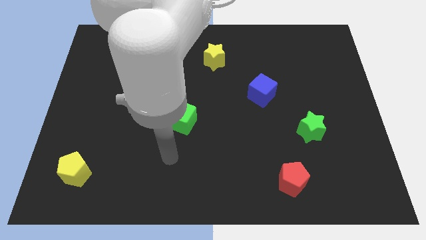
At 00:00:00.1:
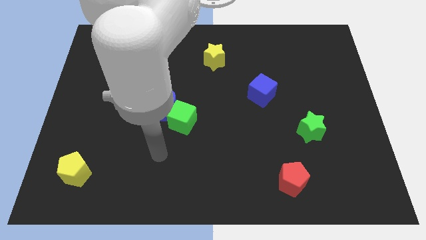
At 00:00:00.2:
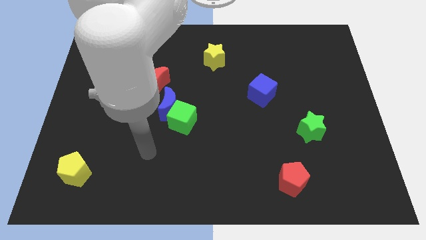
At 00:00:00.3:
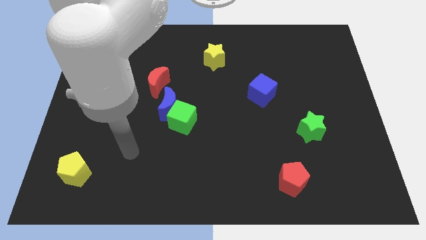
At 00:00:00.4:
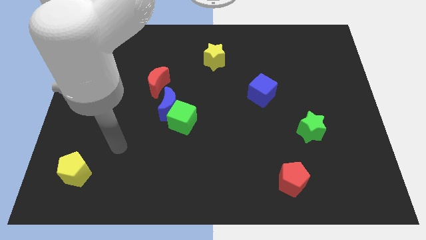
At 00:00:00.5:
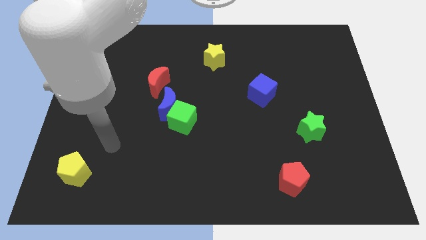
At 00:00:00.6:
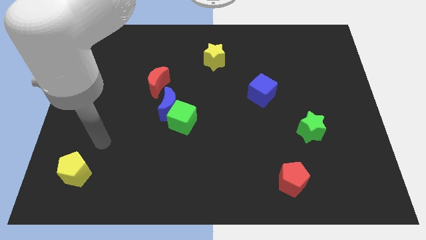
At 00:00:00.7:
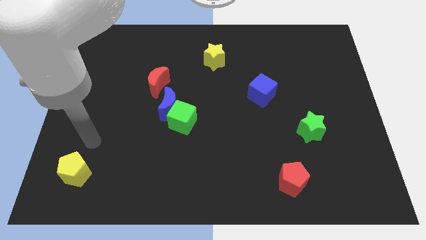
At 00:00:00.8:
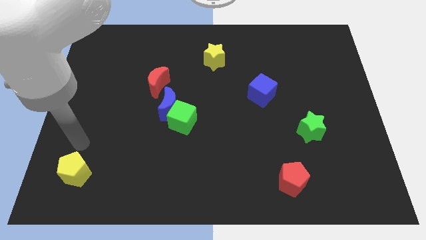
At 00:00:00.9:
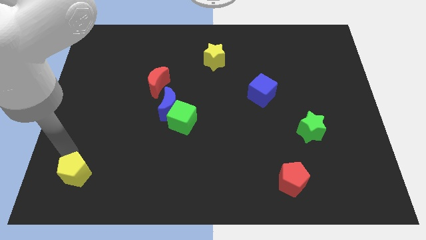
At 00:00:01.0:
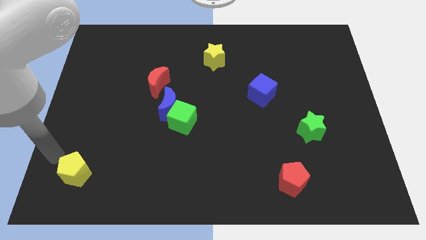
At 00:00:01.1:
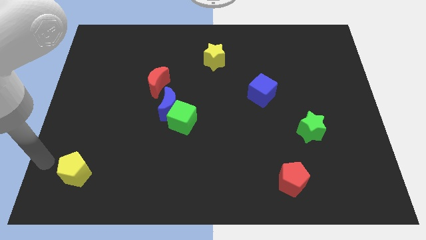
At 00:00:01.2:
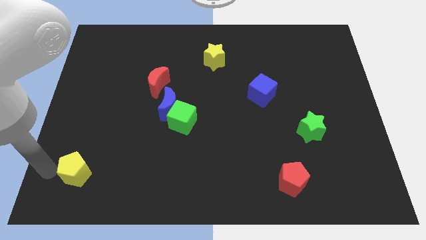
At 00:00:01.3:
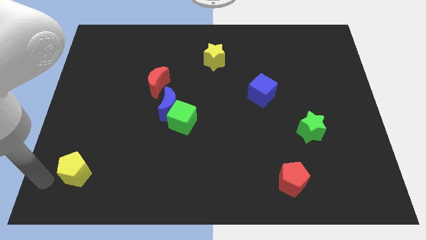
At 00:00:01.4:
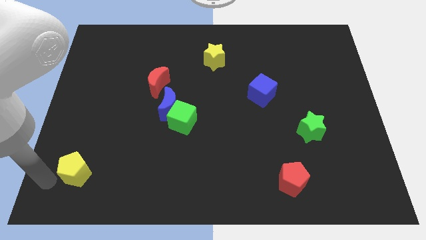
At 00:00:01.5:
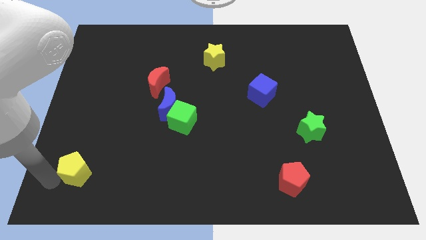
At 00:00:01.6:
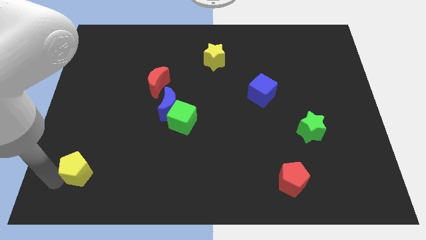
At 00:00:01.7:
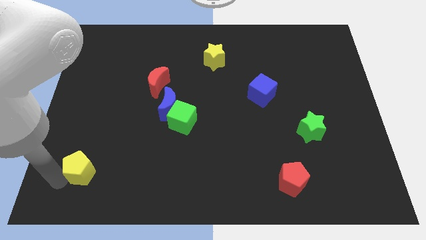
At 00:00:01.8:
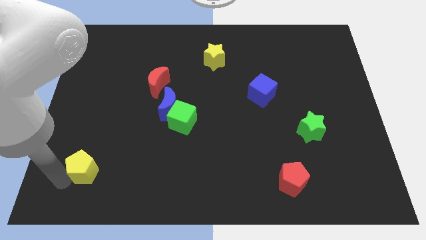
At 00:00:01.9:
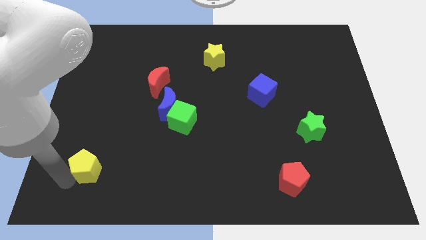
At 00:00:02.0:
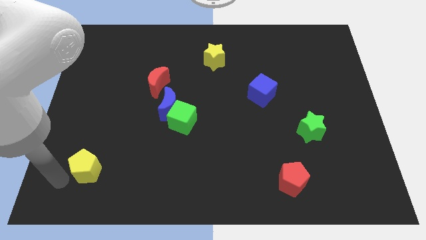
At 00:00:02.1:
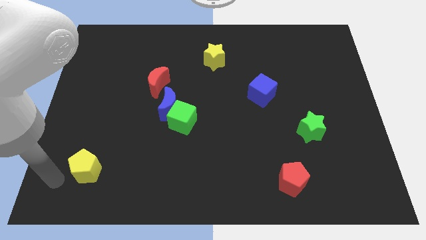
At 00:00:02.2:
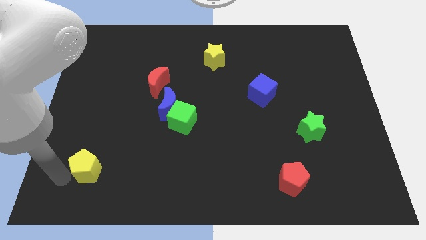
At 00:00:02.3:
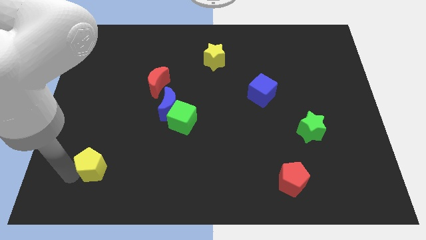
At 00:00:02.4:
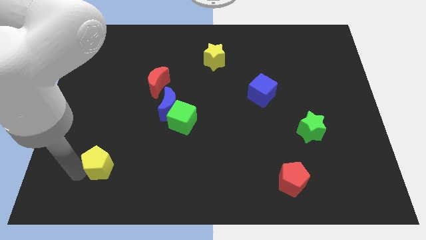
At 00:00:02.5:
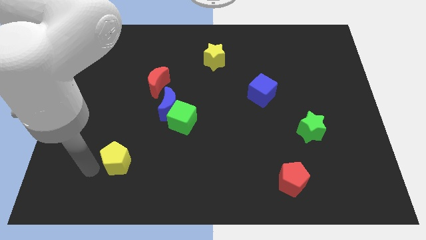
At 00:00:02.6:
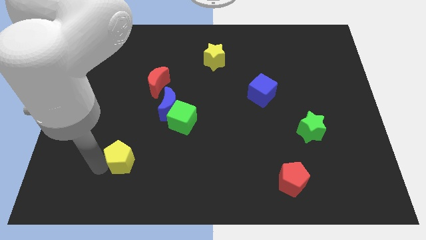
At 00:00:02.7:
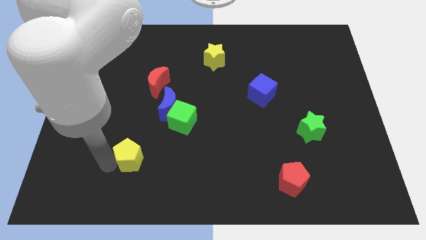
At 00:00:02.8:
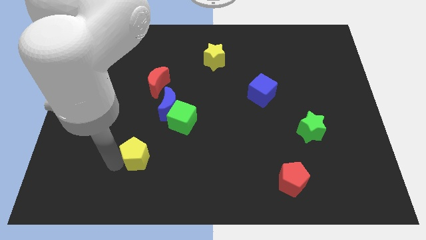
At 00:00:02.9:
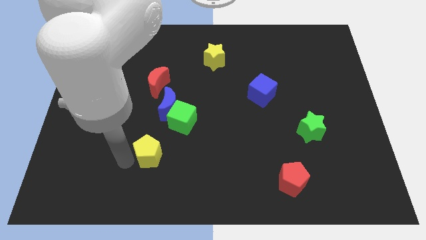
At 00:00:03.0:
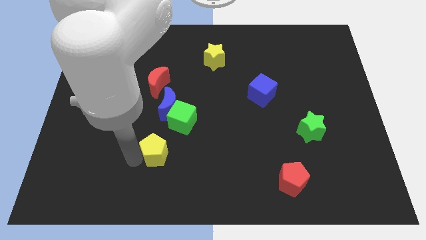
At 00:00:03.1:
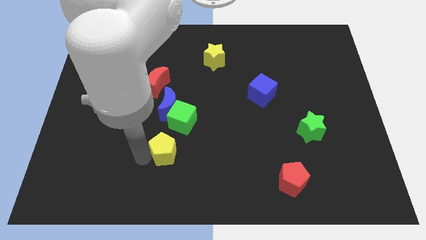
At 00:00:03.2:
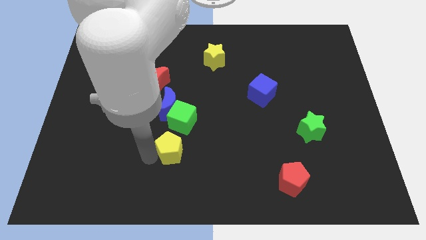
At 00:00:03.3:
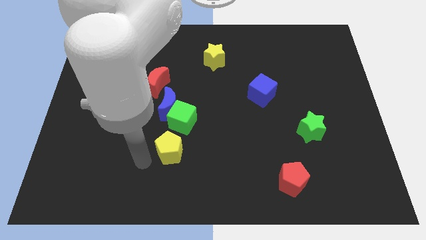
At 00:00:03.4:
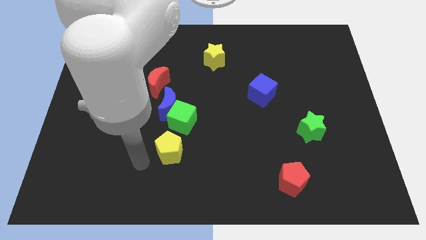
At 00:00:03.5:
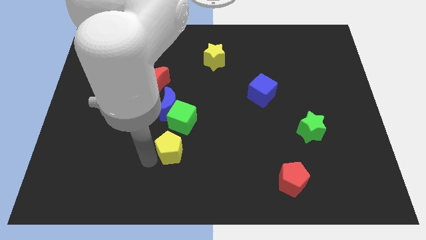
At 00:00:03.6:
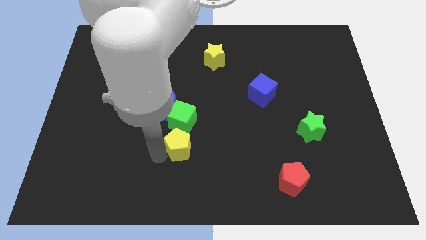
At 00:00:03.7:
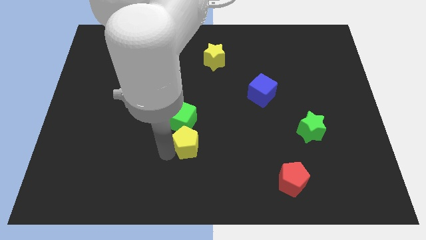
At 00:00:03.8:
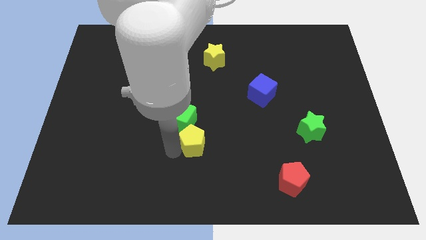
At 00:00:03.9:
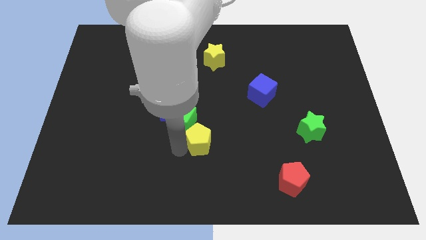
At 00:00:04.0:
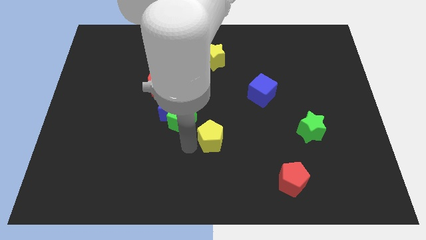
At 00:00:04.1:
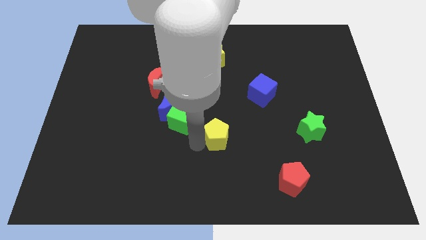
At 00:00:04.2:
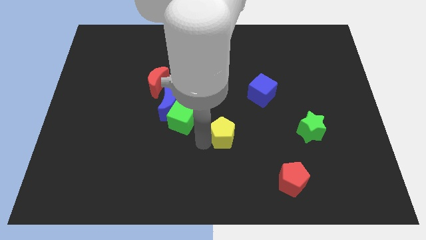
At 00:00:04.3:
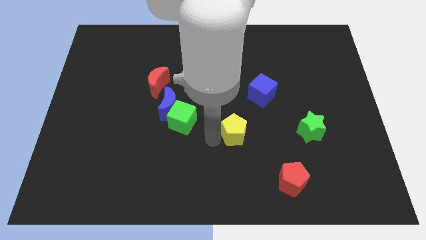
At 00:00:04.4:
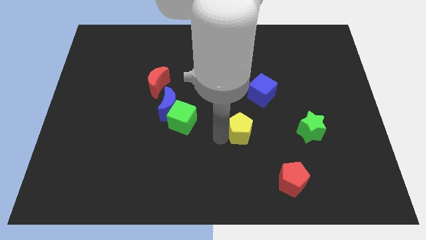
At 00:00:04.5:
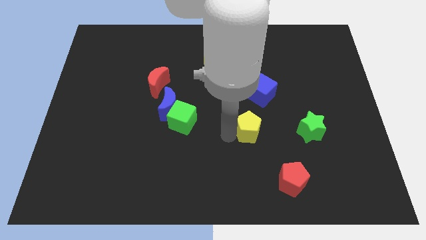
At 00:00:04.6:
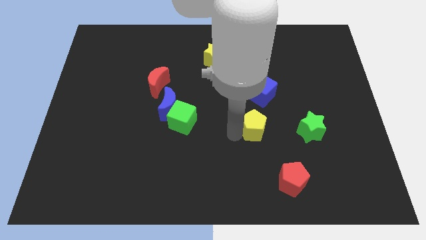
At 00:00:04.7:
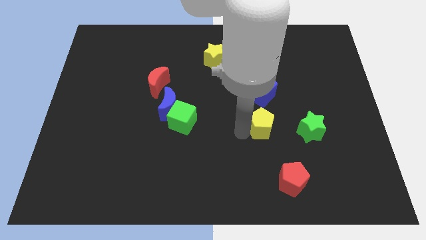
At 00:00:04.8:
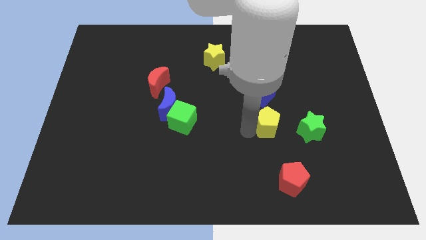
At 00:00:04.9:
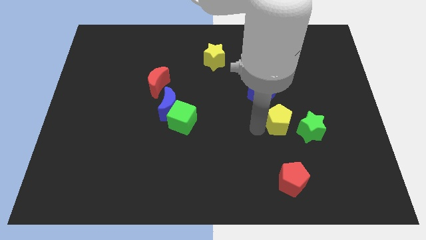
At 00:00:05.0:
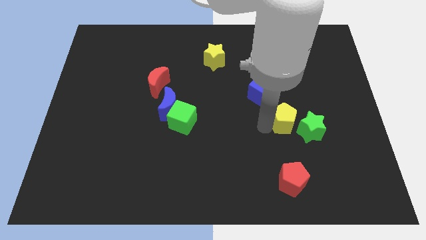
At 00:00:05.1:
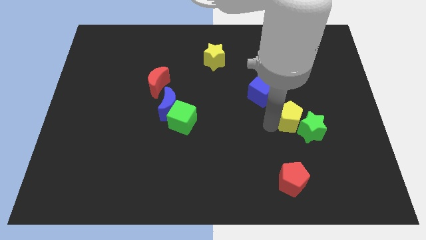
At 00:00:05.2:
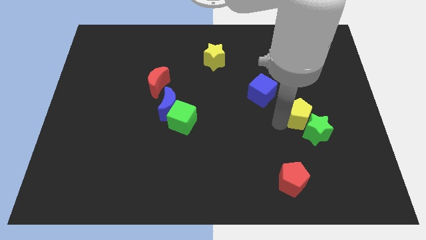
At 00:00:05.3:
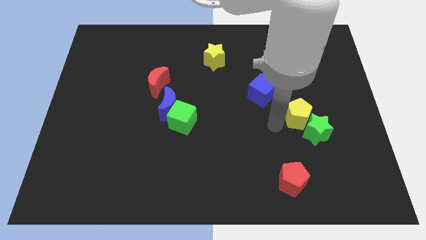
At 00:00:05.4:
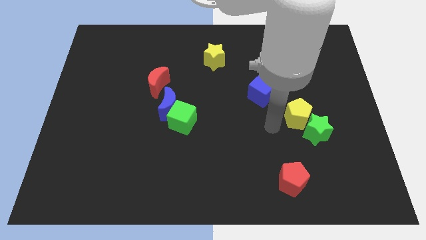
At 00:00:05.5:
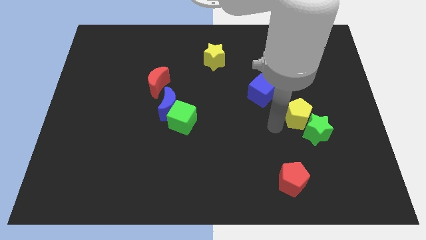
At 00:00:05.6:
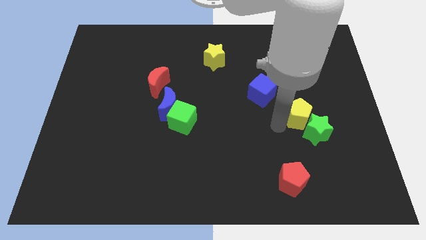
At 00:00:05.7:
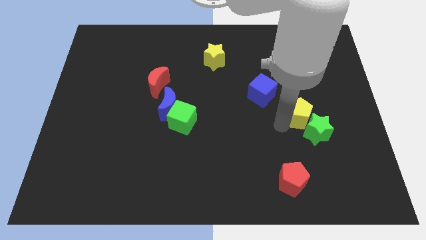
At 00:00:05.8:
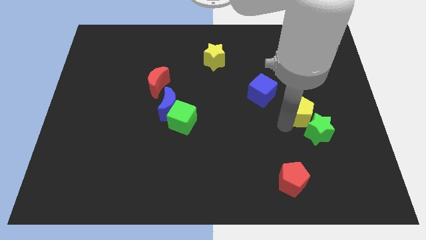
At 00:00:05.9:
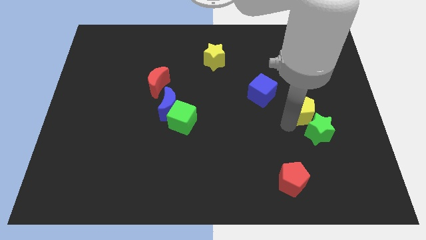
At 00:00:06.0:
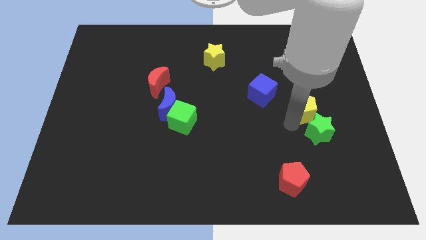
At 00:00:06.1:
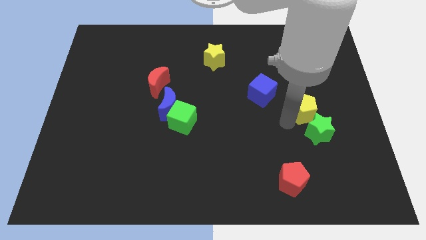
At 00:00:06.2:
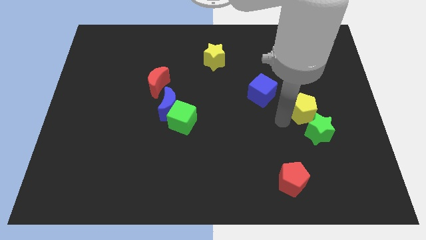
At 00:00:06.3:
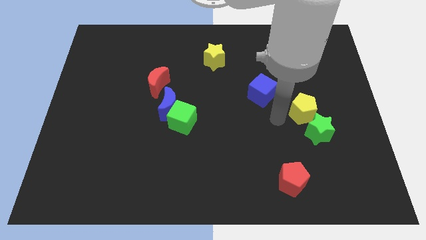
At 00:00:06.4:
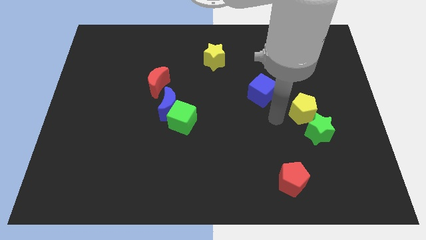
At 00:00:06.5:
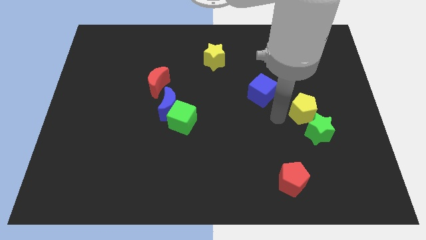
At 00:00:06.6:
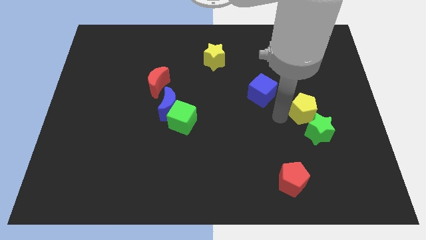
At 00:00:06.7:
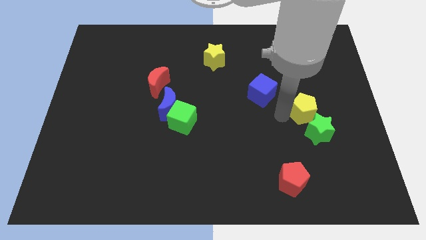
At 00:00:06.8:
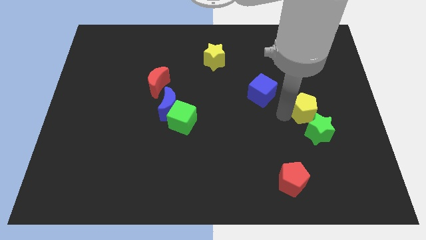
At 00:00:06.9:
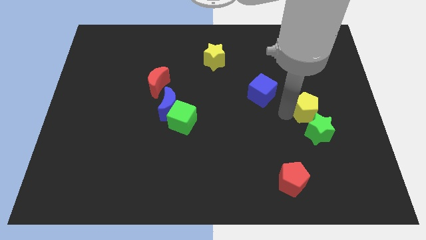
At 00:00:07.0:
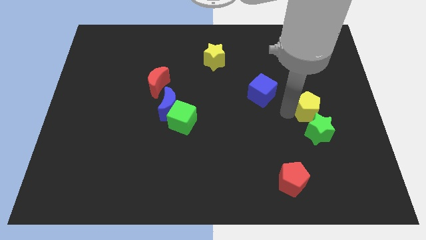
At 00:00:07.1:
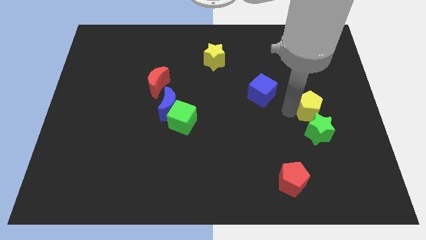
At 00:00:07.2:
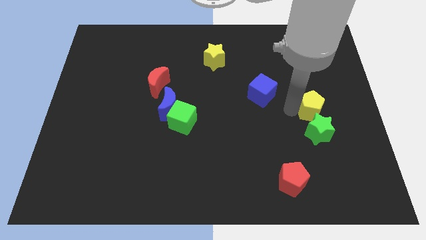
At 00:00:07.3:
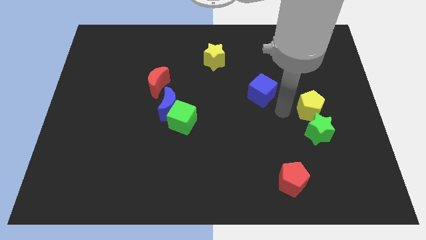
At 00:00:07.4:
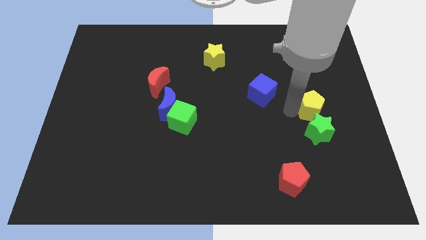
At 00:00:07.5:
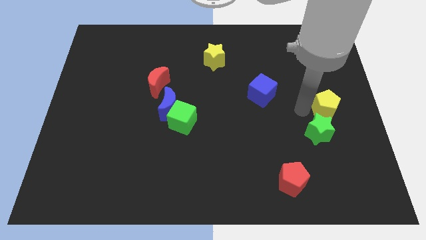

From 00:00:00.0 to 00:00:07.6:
move the yellow pentagon to the center right
